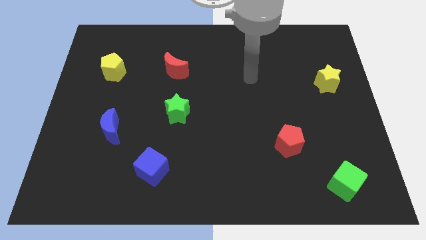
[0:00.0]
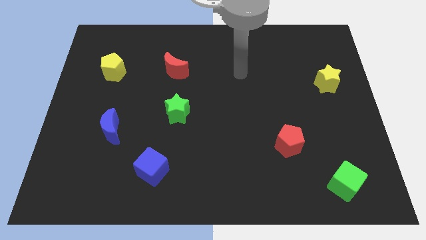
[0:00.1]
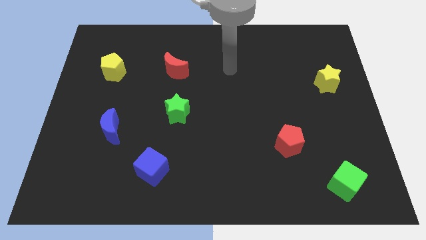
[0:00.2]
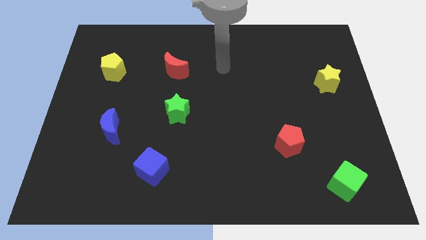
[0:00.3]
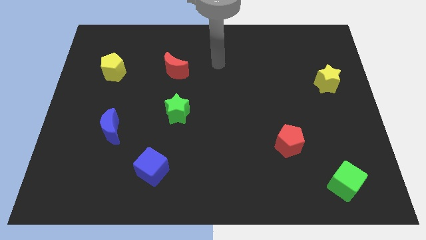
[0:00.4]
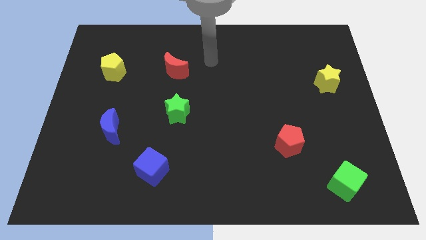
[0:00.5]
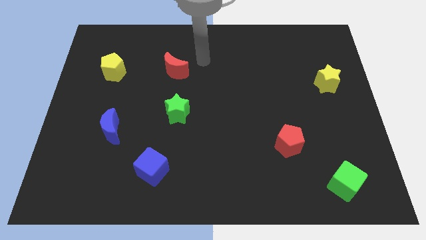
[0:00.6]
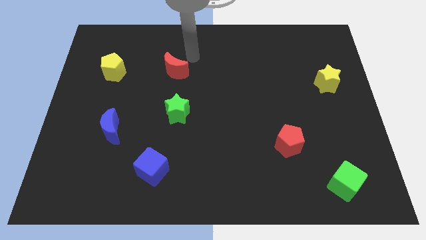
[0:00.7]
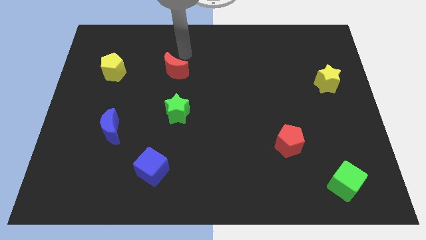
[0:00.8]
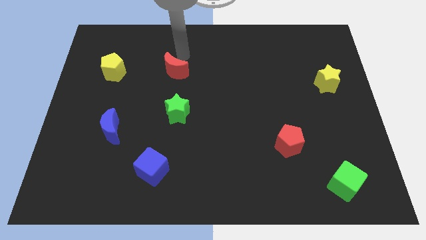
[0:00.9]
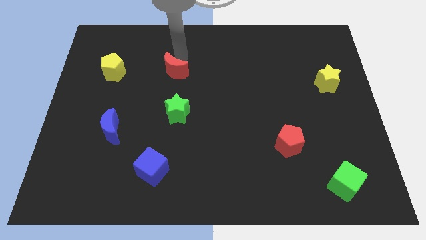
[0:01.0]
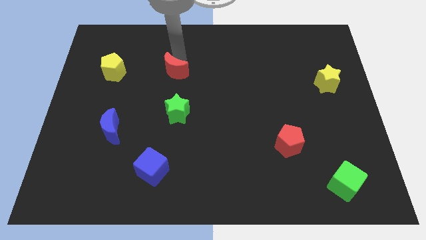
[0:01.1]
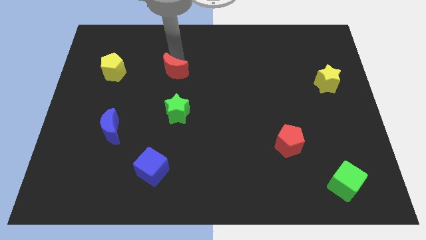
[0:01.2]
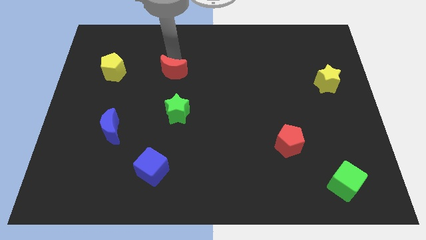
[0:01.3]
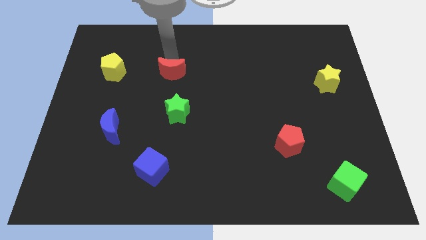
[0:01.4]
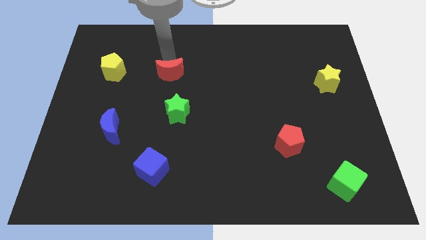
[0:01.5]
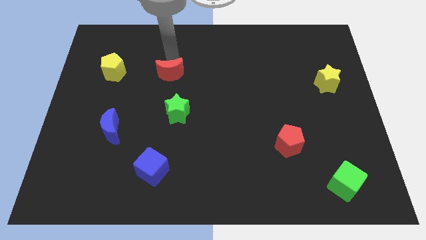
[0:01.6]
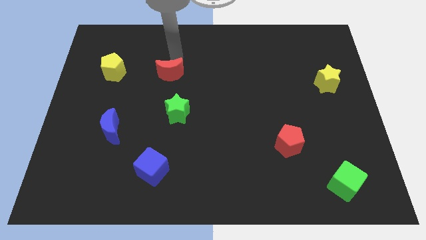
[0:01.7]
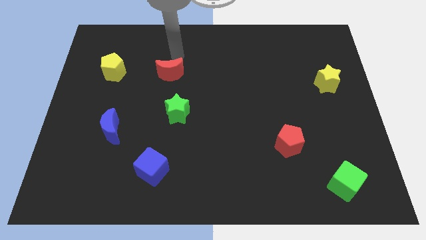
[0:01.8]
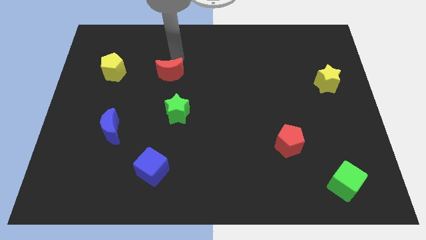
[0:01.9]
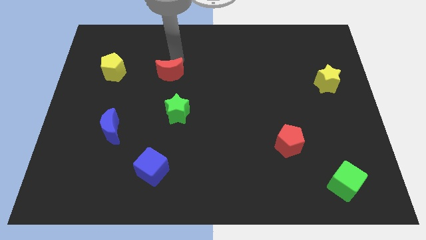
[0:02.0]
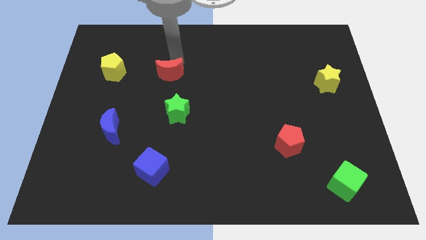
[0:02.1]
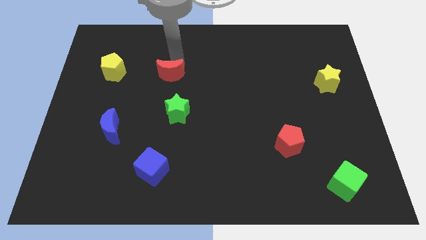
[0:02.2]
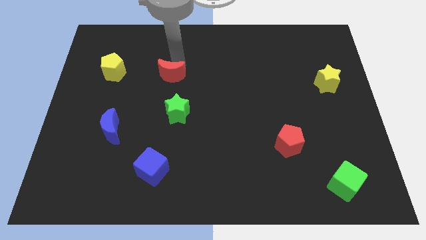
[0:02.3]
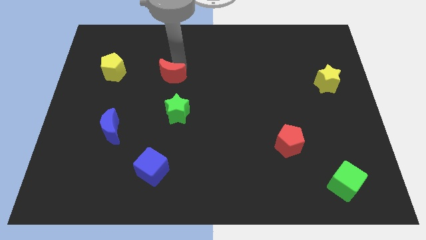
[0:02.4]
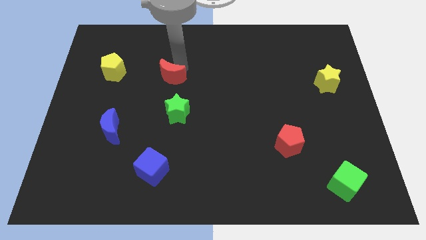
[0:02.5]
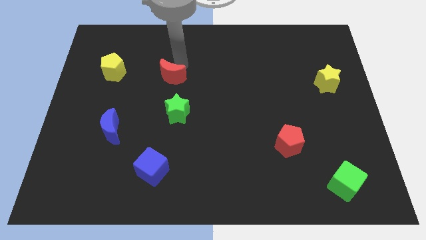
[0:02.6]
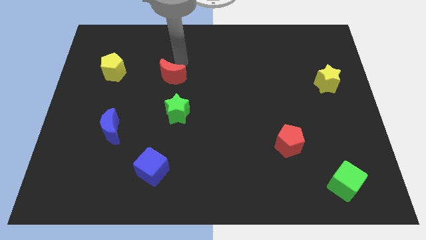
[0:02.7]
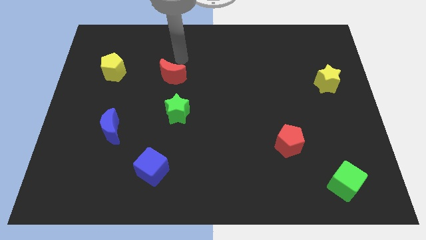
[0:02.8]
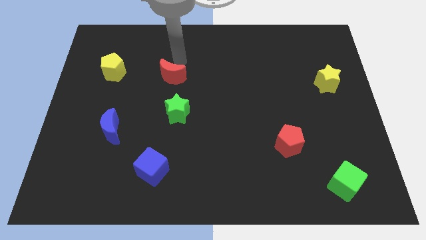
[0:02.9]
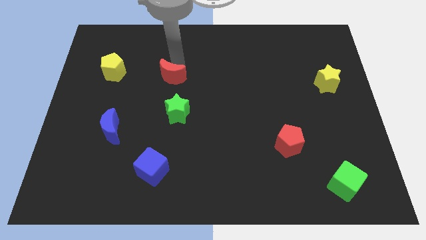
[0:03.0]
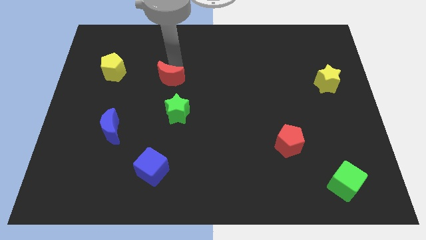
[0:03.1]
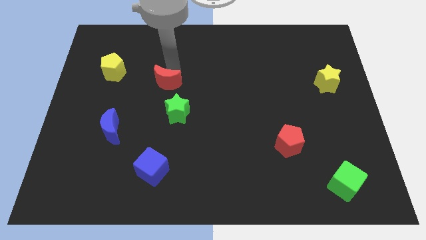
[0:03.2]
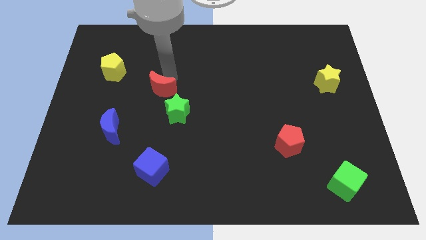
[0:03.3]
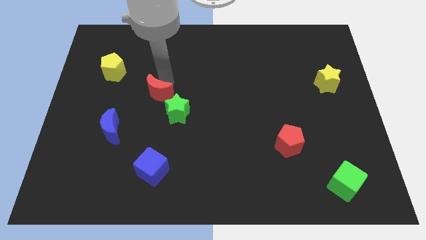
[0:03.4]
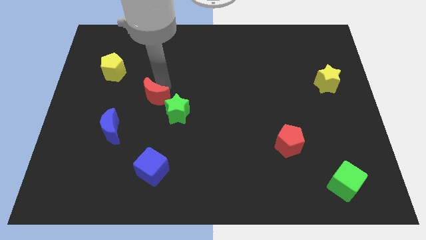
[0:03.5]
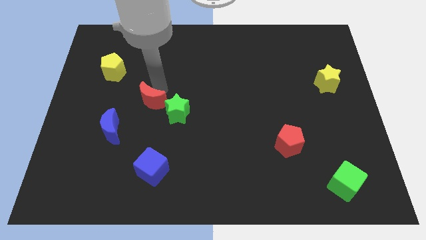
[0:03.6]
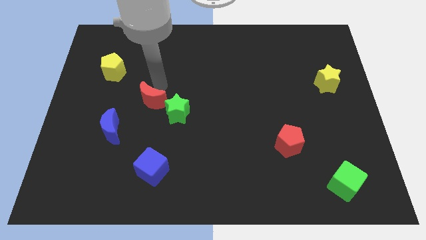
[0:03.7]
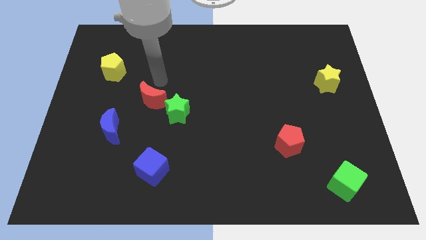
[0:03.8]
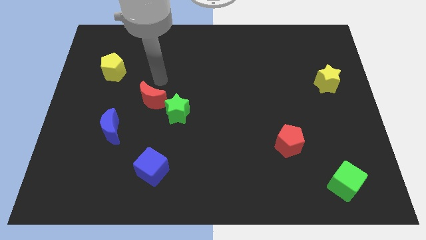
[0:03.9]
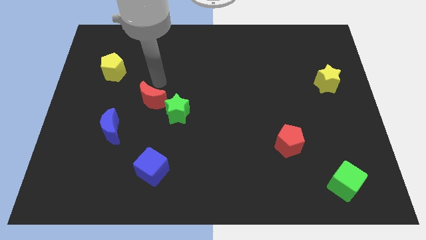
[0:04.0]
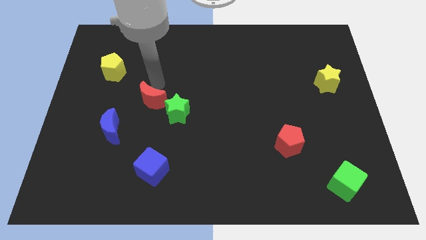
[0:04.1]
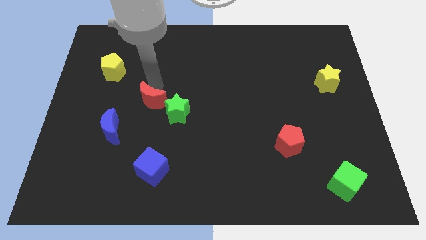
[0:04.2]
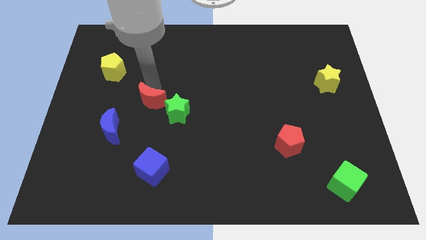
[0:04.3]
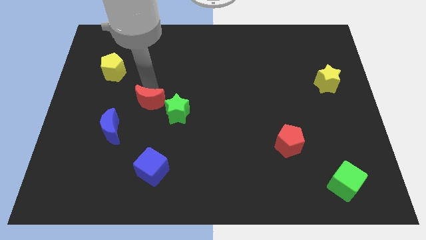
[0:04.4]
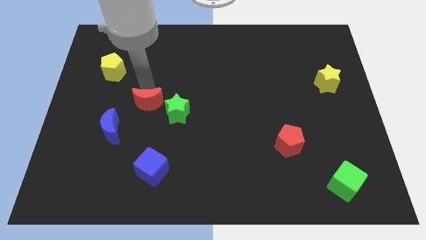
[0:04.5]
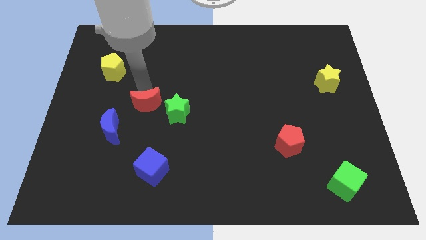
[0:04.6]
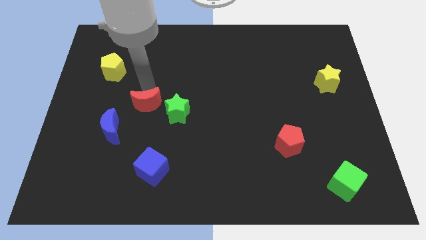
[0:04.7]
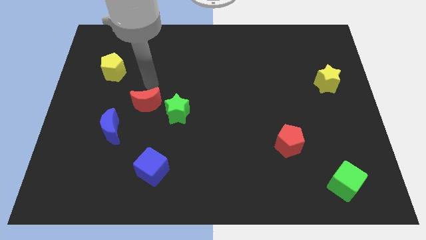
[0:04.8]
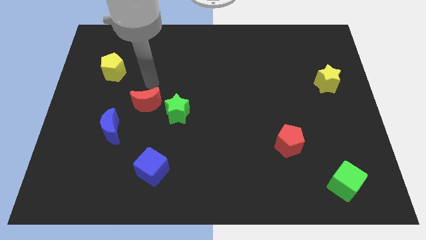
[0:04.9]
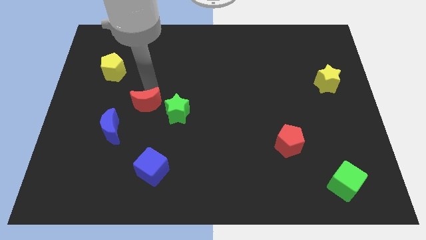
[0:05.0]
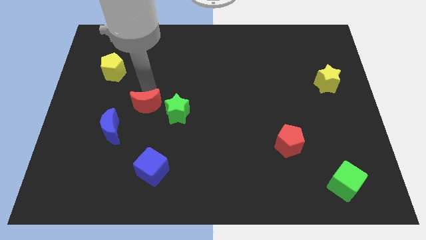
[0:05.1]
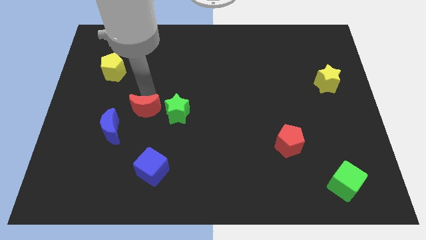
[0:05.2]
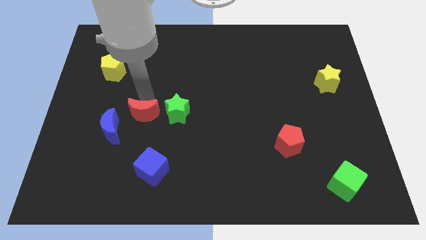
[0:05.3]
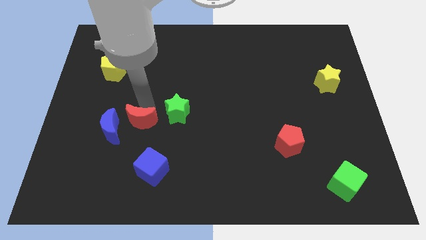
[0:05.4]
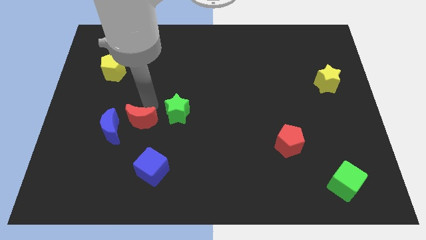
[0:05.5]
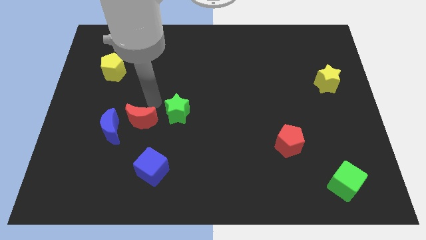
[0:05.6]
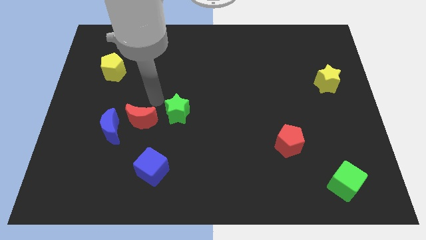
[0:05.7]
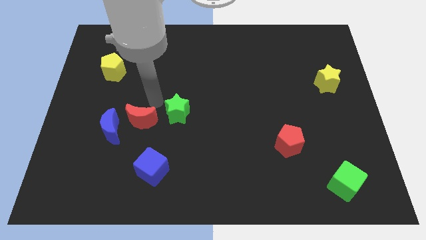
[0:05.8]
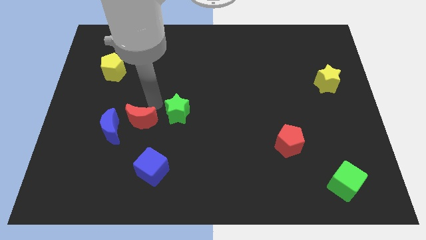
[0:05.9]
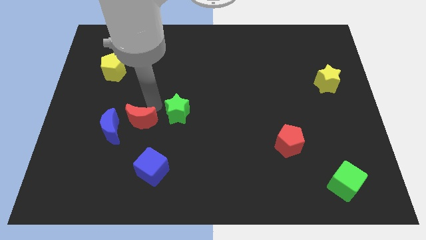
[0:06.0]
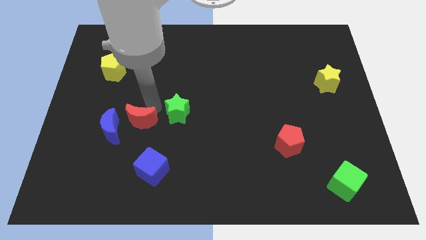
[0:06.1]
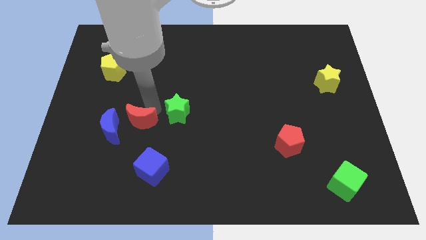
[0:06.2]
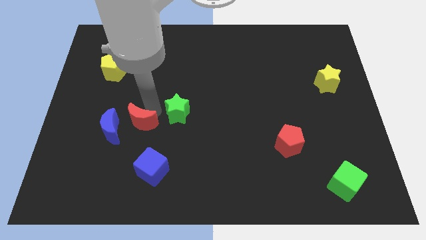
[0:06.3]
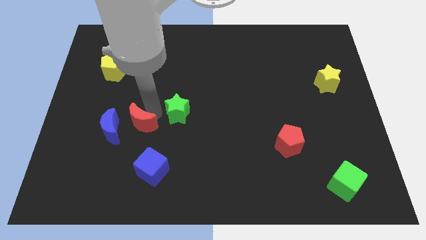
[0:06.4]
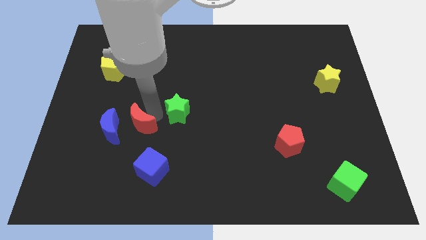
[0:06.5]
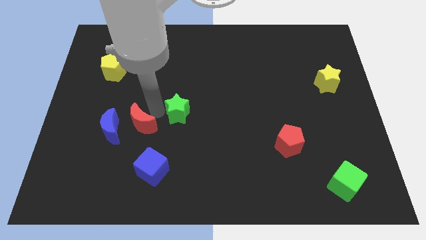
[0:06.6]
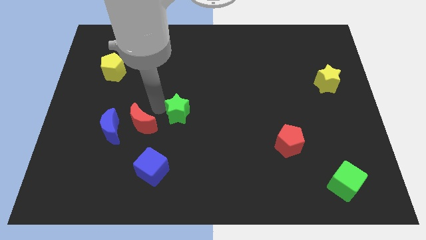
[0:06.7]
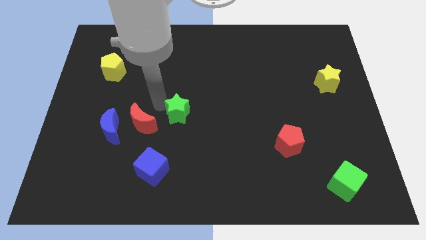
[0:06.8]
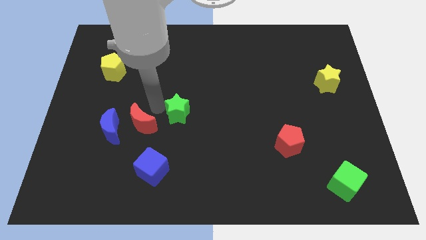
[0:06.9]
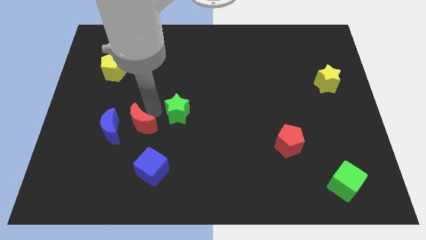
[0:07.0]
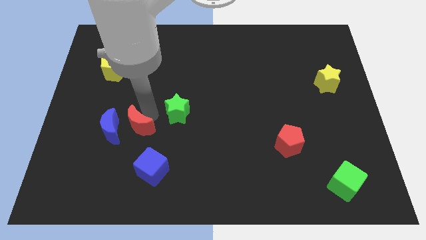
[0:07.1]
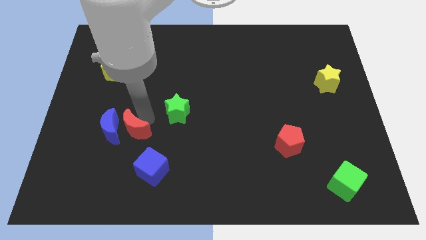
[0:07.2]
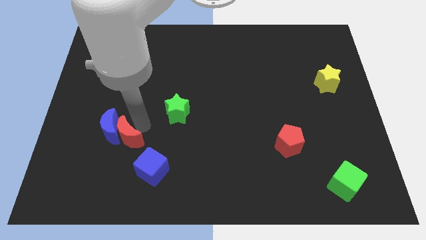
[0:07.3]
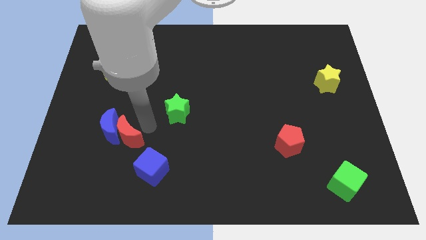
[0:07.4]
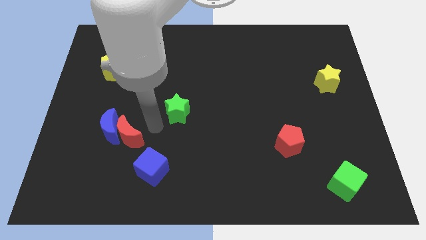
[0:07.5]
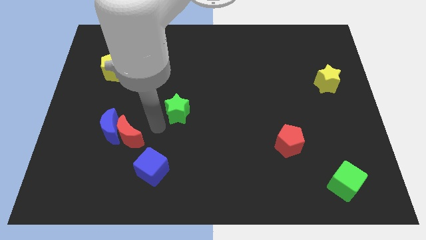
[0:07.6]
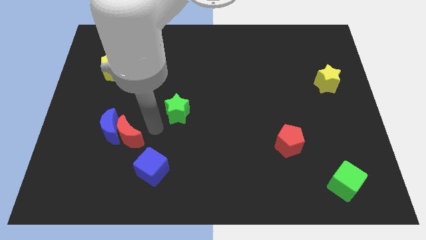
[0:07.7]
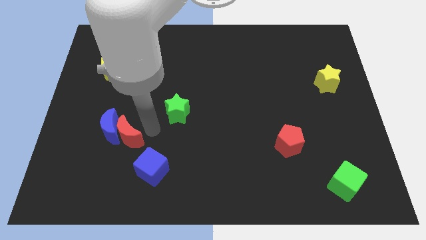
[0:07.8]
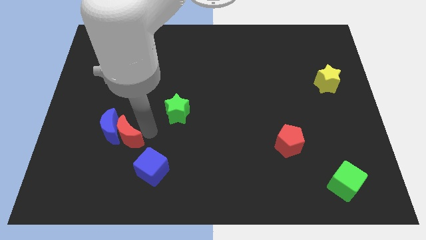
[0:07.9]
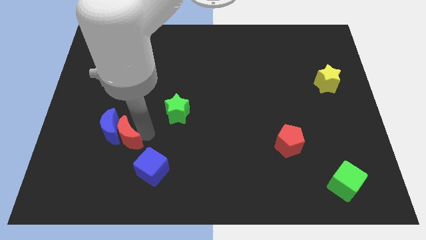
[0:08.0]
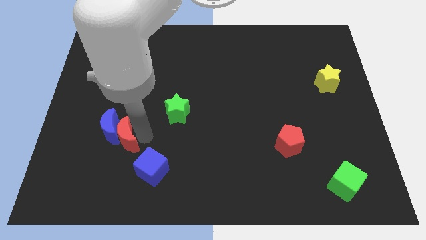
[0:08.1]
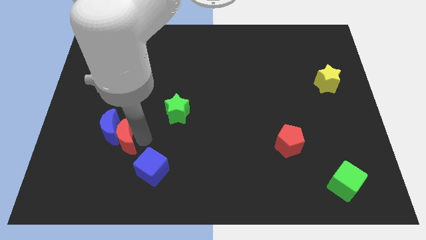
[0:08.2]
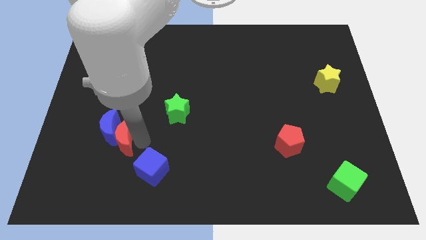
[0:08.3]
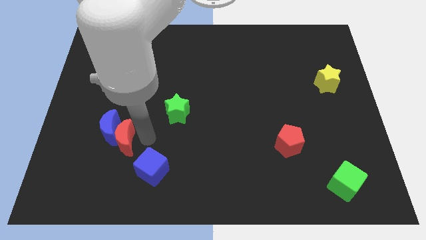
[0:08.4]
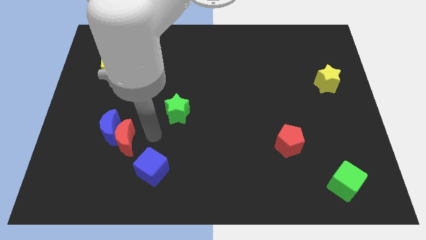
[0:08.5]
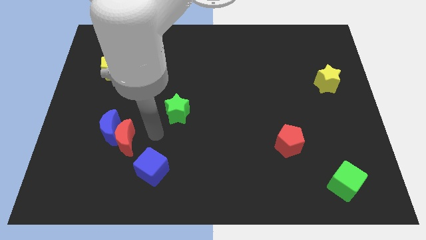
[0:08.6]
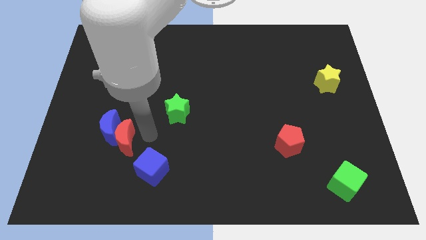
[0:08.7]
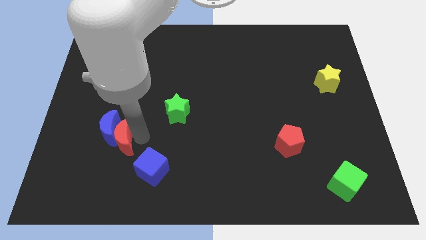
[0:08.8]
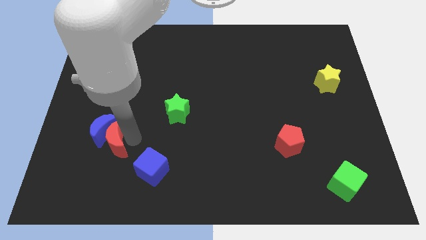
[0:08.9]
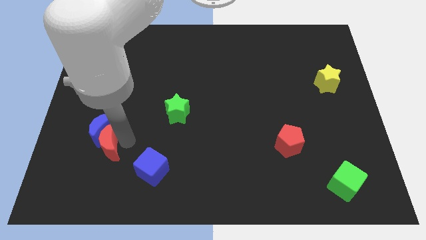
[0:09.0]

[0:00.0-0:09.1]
put the red moon to the bottom left of the blue moon
